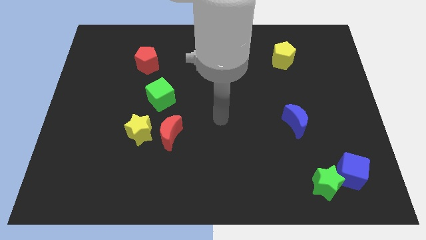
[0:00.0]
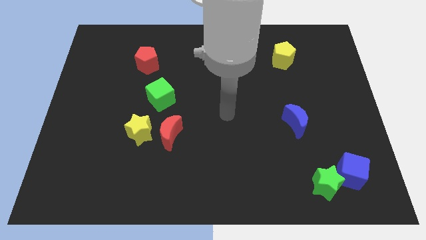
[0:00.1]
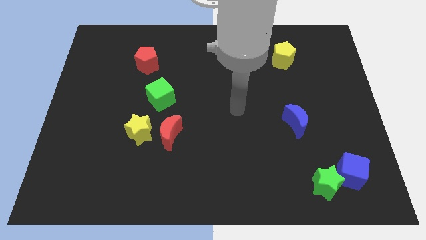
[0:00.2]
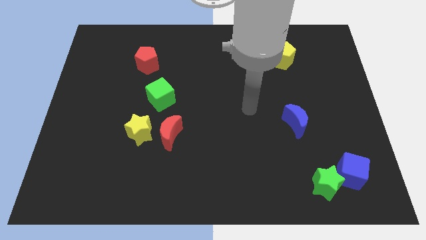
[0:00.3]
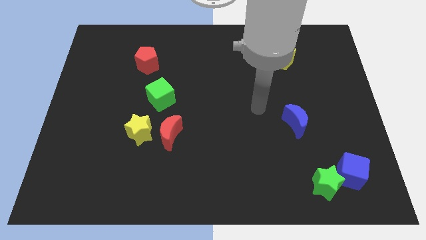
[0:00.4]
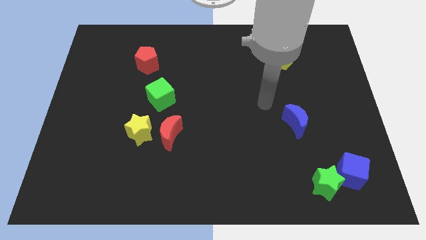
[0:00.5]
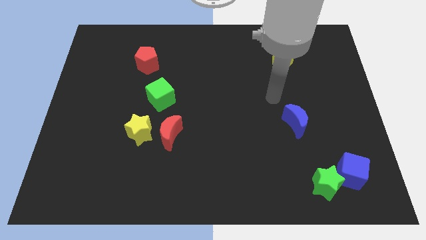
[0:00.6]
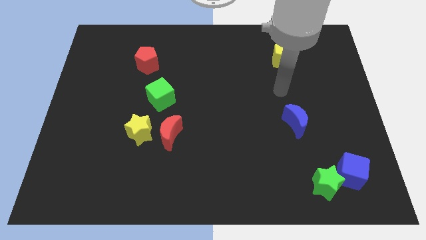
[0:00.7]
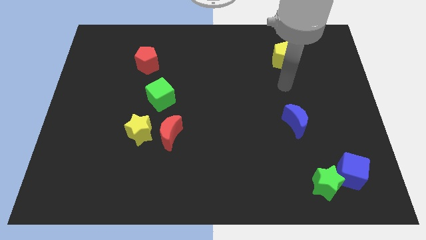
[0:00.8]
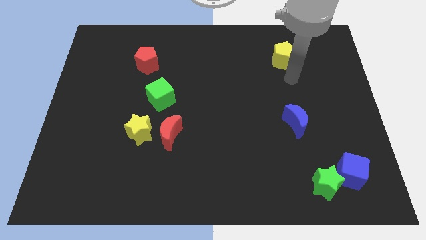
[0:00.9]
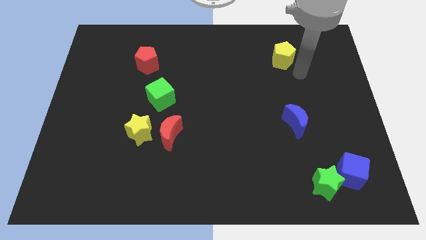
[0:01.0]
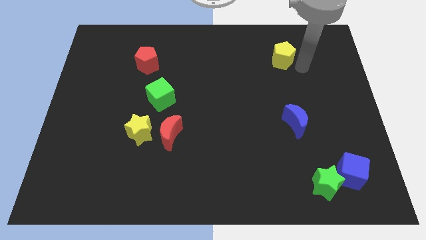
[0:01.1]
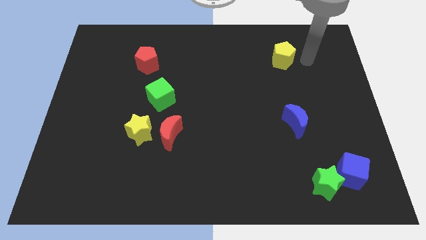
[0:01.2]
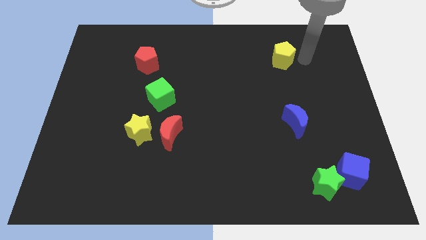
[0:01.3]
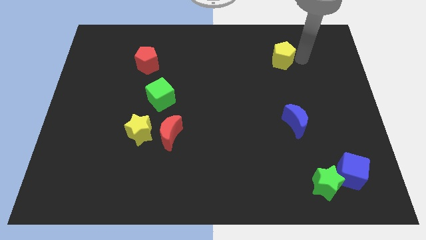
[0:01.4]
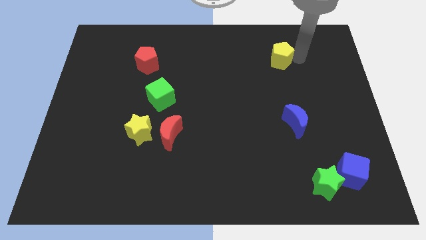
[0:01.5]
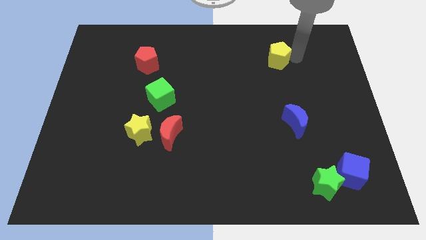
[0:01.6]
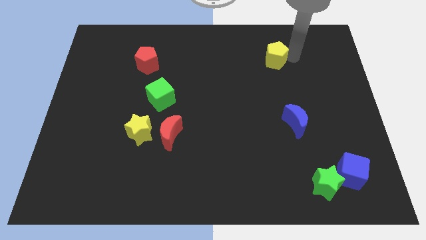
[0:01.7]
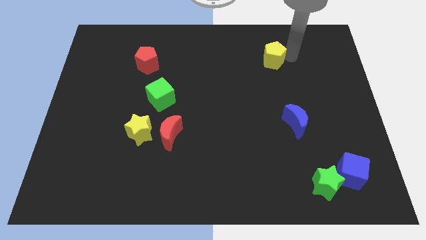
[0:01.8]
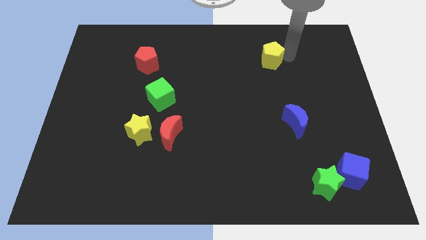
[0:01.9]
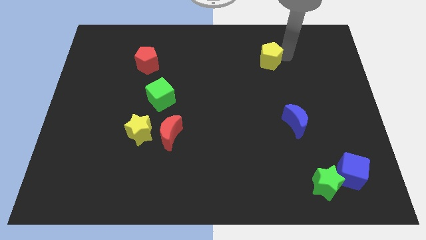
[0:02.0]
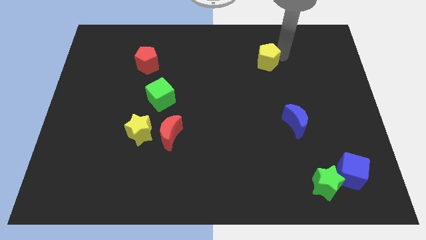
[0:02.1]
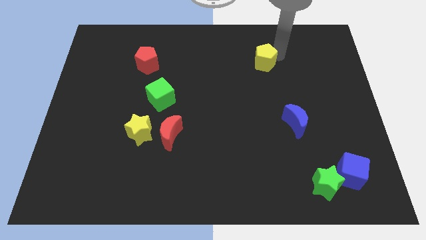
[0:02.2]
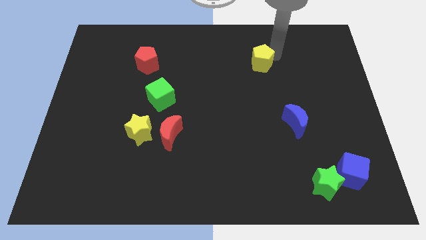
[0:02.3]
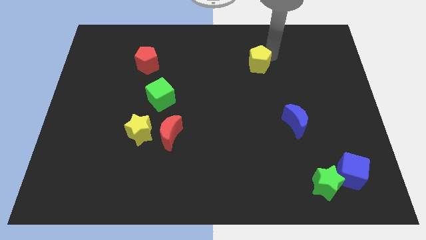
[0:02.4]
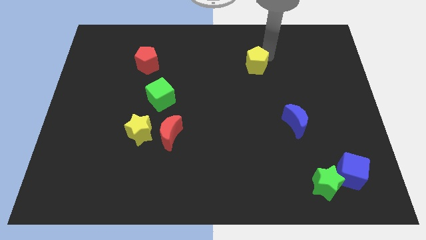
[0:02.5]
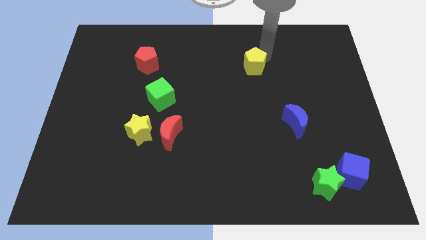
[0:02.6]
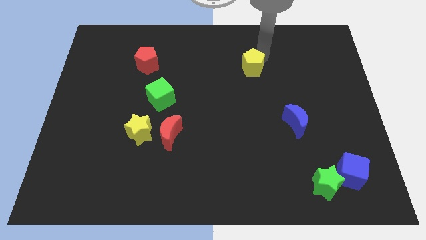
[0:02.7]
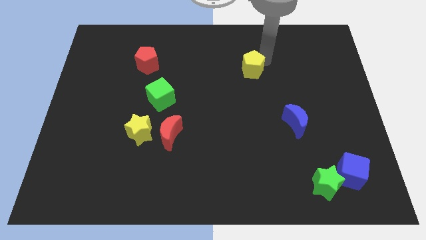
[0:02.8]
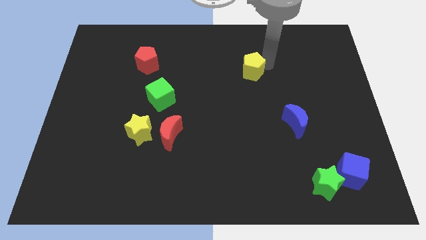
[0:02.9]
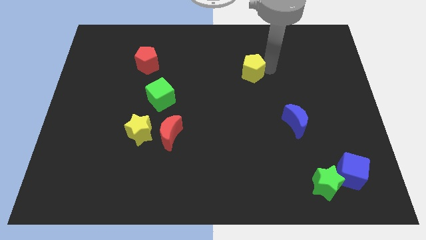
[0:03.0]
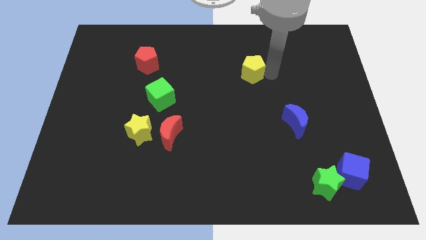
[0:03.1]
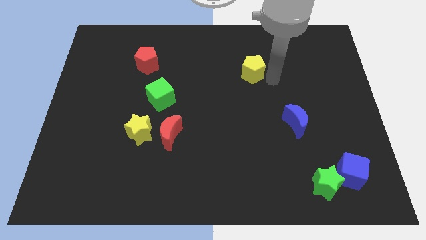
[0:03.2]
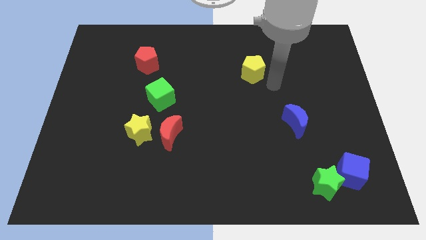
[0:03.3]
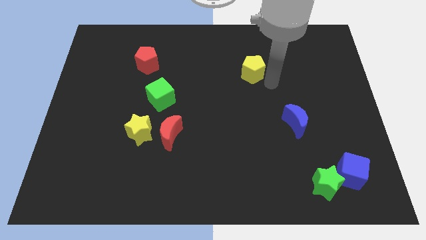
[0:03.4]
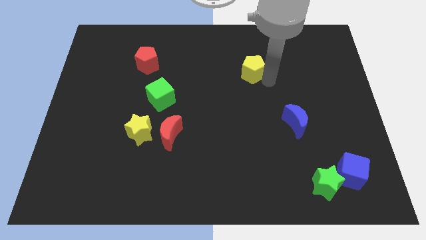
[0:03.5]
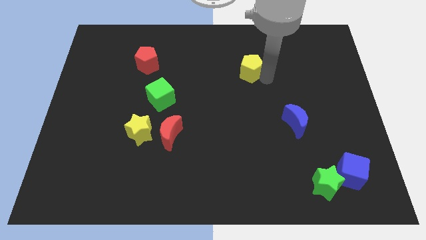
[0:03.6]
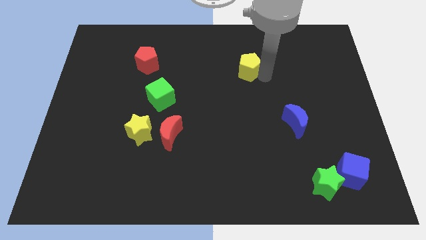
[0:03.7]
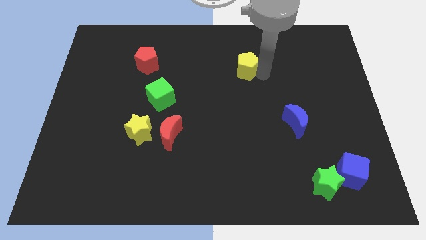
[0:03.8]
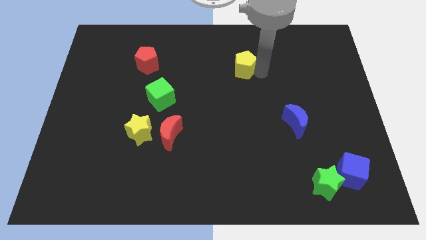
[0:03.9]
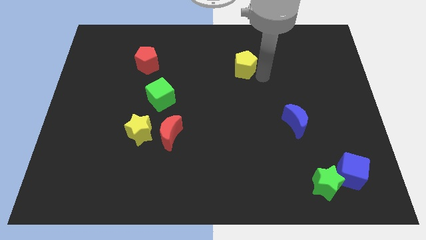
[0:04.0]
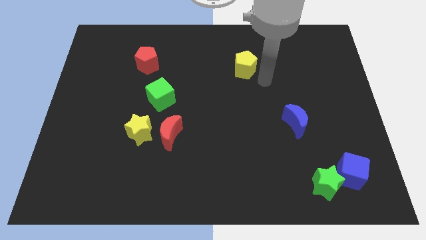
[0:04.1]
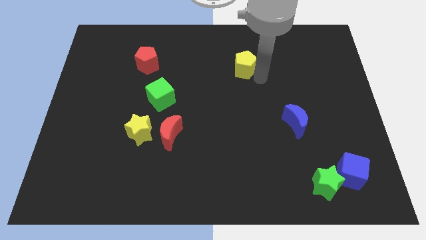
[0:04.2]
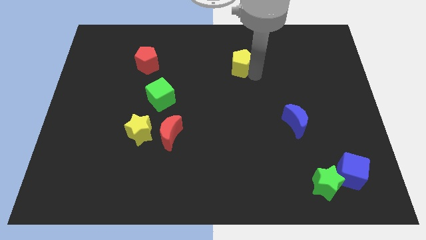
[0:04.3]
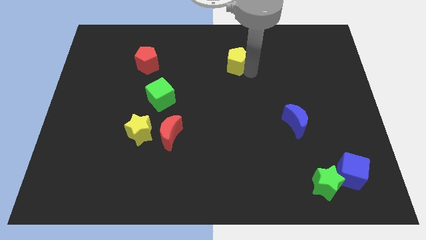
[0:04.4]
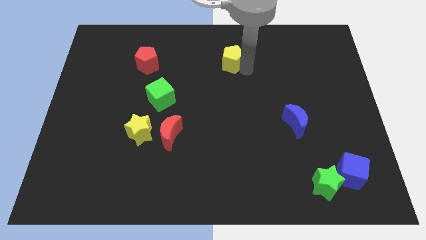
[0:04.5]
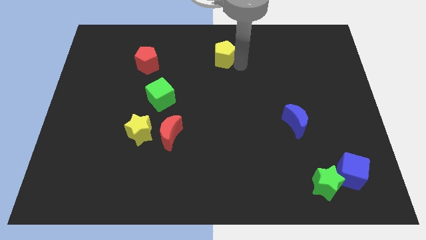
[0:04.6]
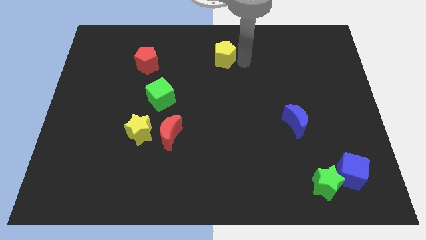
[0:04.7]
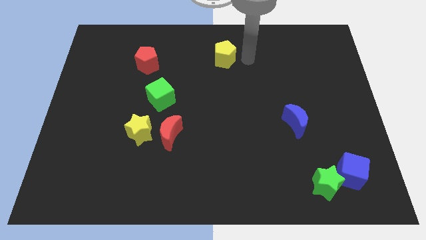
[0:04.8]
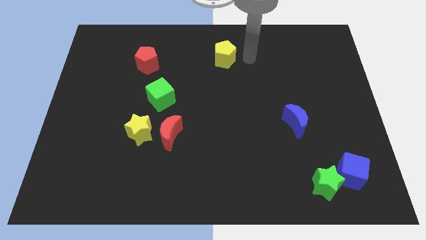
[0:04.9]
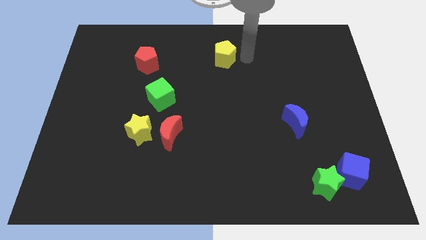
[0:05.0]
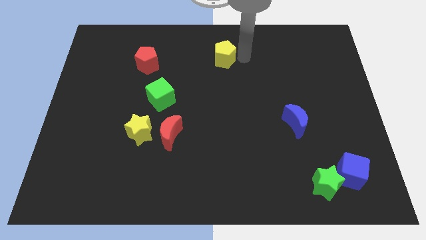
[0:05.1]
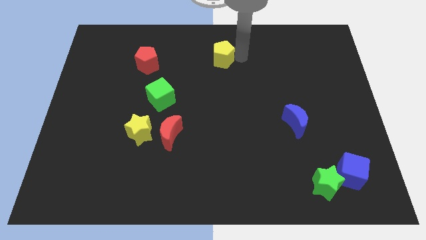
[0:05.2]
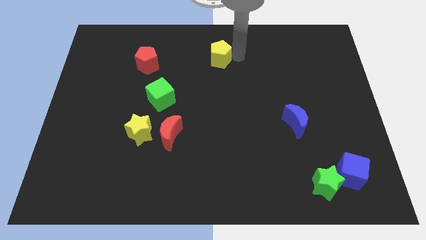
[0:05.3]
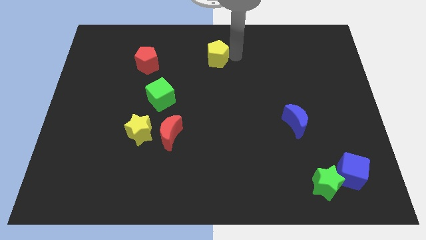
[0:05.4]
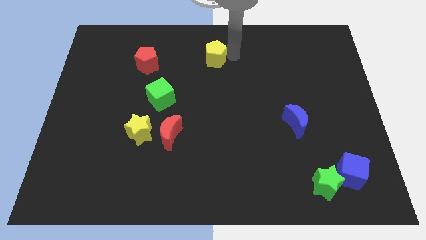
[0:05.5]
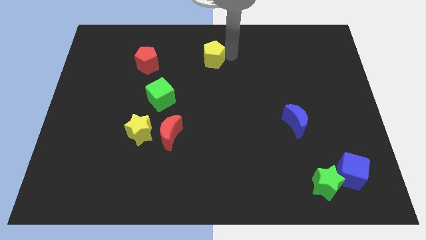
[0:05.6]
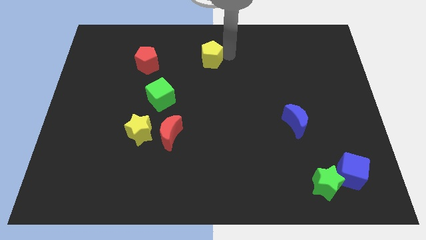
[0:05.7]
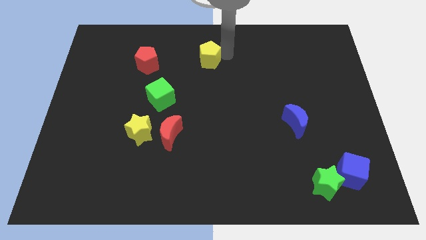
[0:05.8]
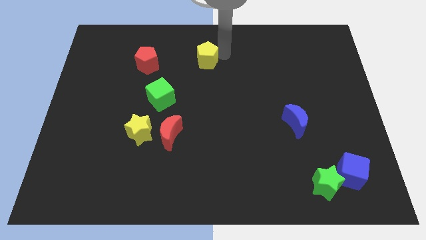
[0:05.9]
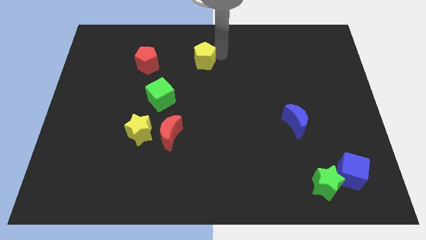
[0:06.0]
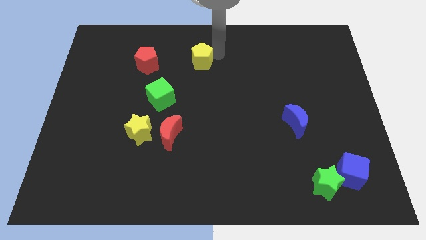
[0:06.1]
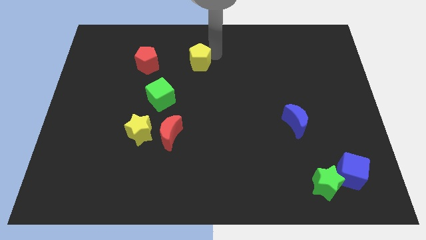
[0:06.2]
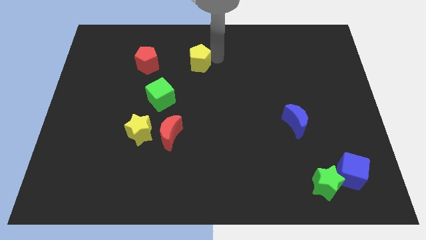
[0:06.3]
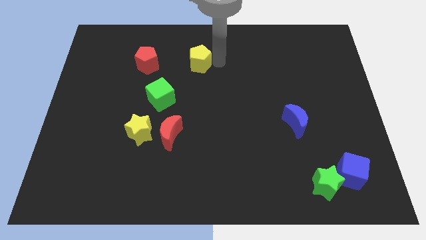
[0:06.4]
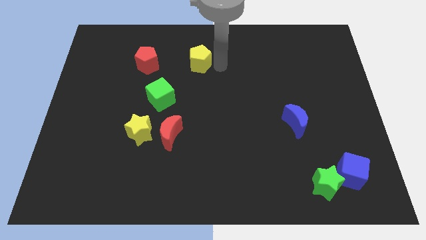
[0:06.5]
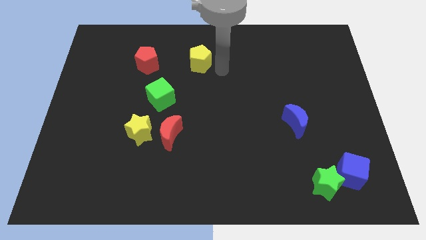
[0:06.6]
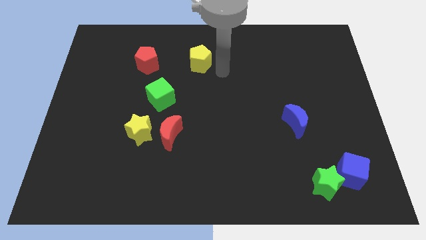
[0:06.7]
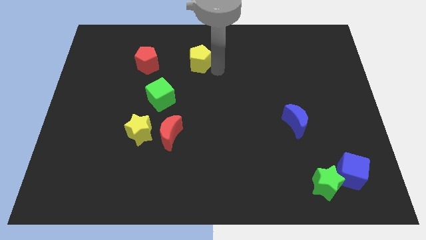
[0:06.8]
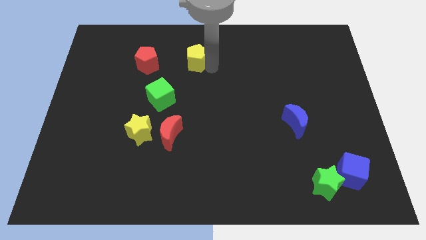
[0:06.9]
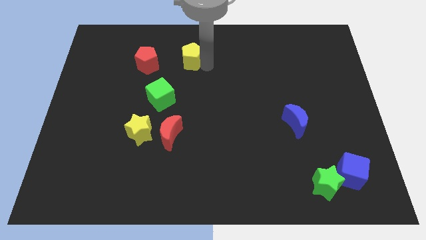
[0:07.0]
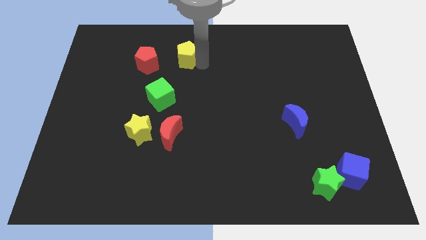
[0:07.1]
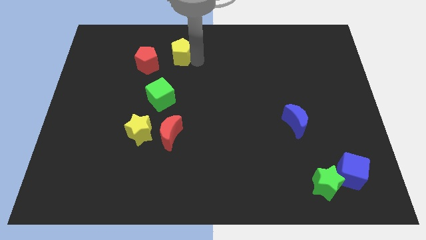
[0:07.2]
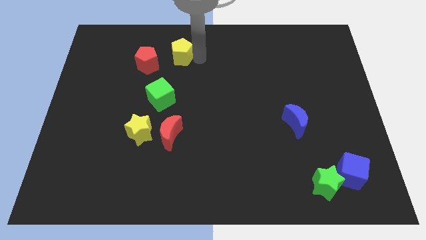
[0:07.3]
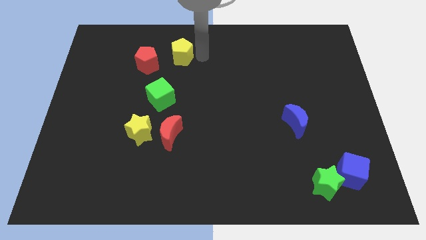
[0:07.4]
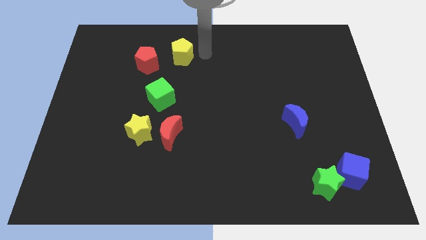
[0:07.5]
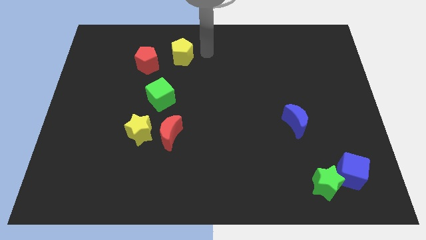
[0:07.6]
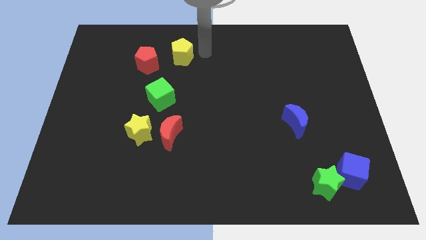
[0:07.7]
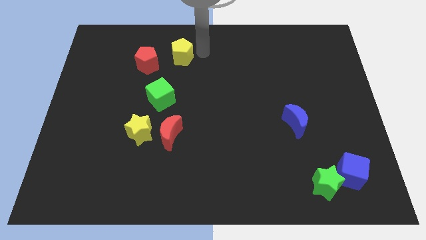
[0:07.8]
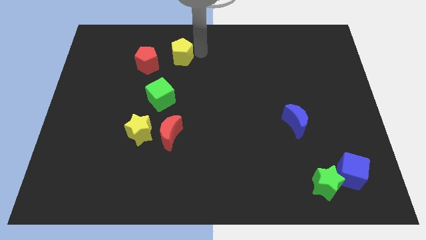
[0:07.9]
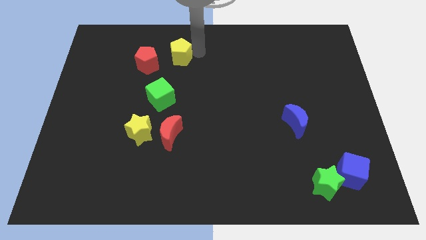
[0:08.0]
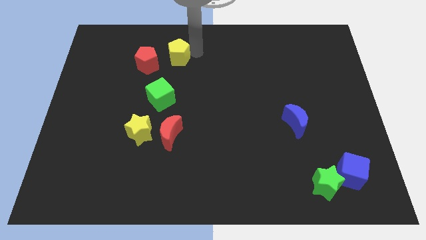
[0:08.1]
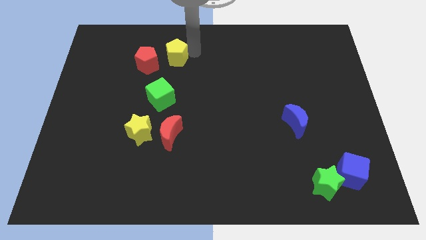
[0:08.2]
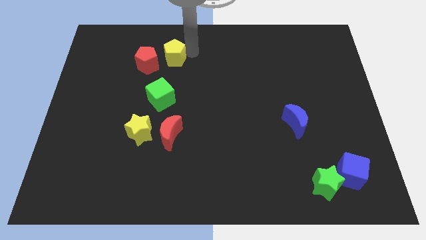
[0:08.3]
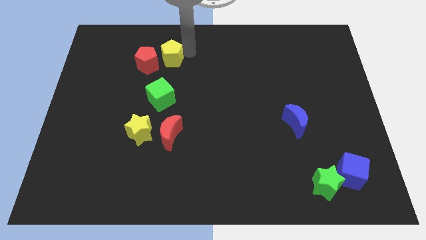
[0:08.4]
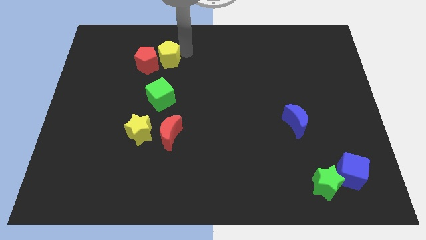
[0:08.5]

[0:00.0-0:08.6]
put the yellow pentagon close to the red pentagon
